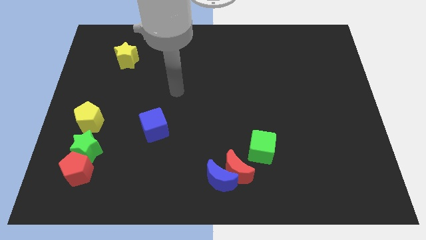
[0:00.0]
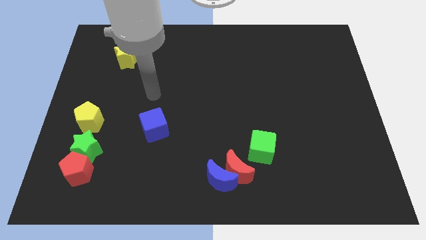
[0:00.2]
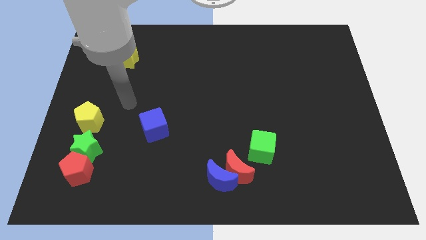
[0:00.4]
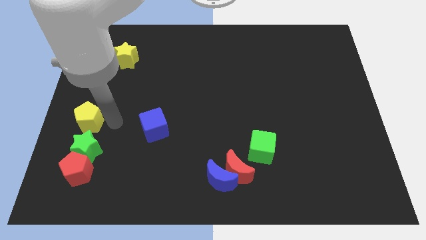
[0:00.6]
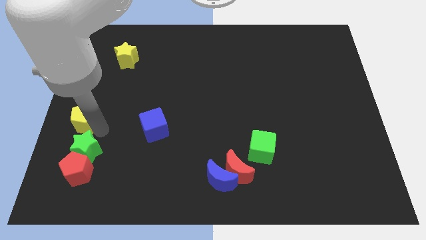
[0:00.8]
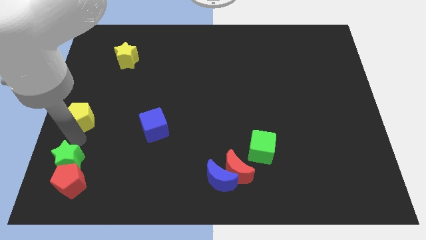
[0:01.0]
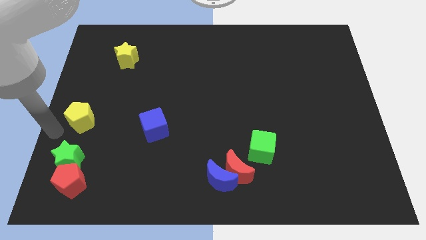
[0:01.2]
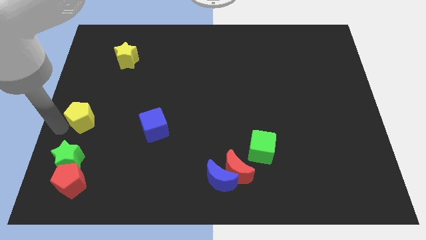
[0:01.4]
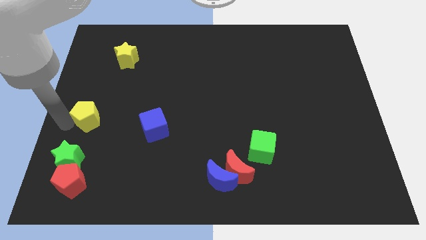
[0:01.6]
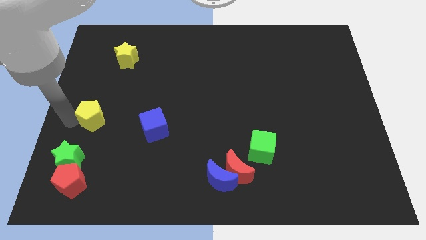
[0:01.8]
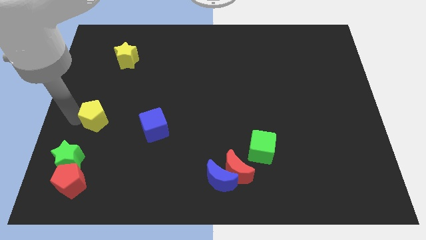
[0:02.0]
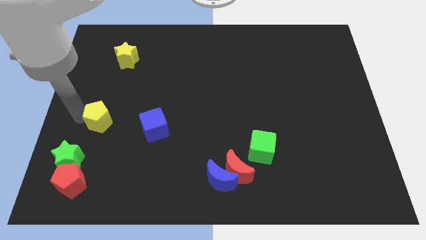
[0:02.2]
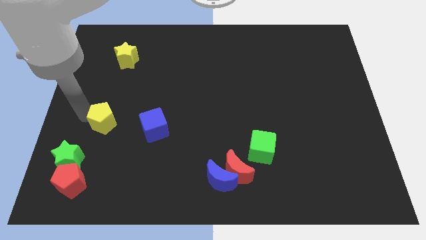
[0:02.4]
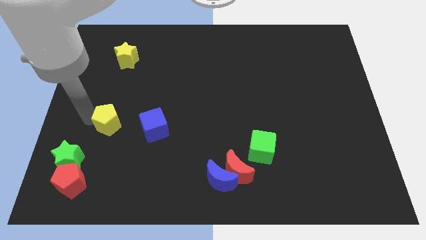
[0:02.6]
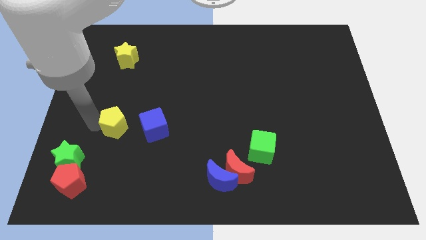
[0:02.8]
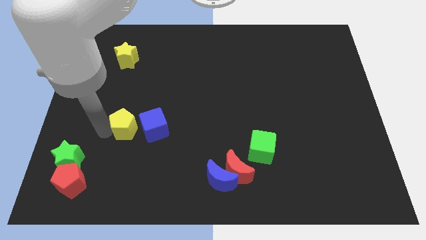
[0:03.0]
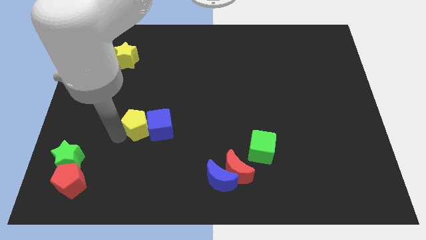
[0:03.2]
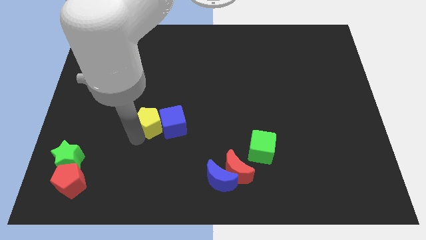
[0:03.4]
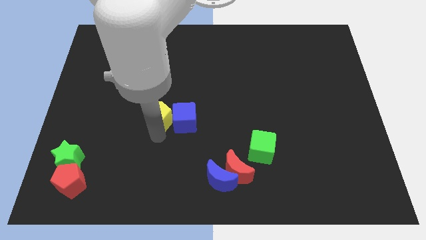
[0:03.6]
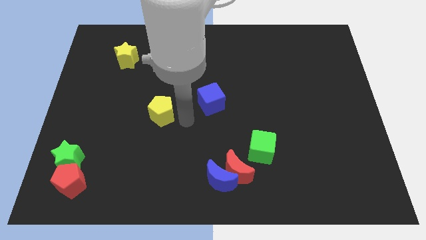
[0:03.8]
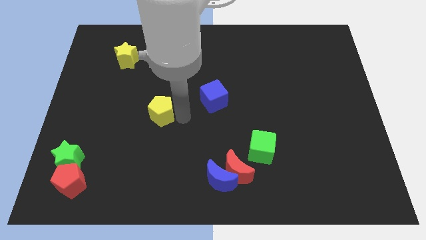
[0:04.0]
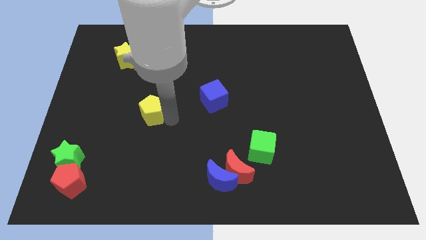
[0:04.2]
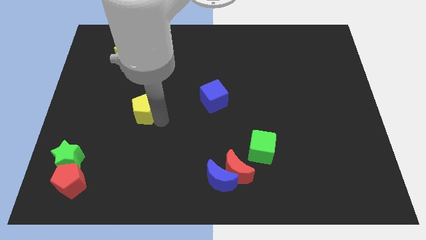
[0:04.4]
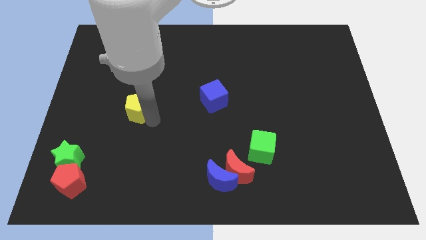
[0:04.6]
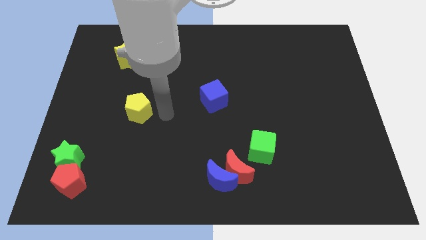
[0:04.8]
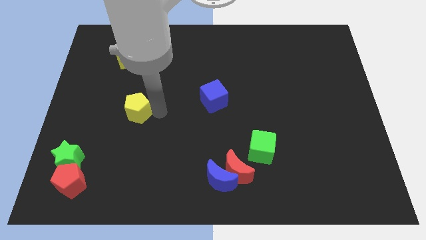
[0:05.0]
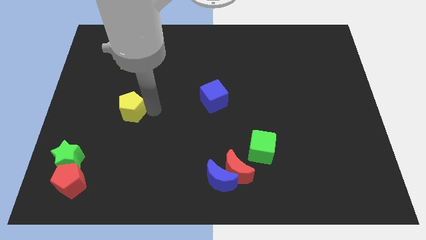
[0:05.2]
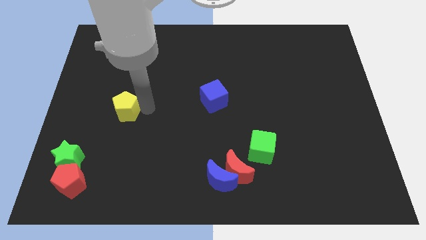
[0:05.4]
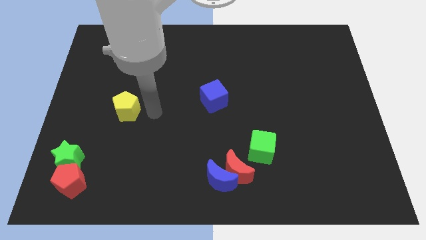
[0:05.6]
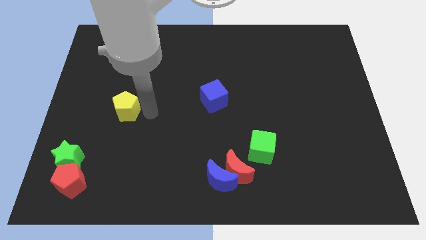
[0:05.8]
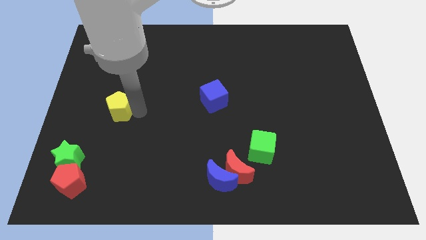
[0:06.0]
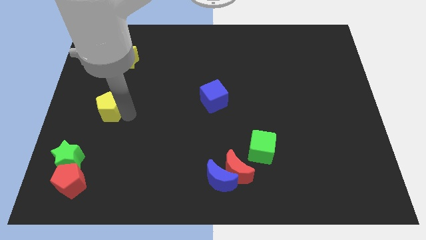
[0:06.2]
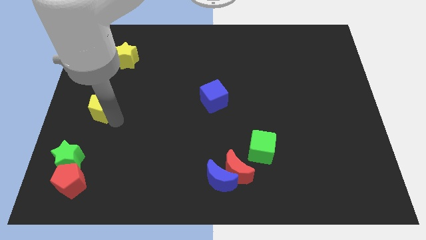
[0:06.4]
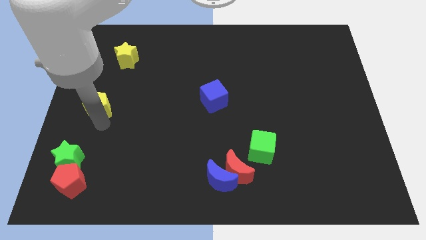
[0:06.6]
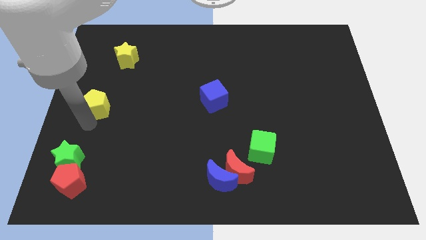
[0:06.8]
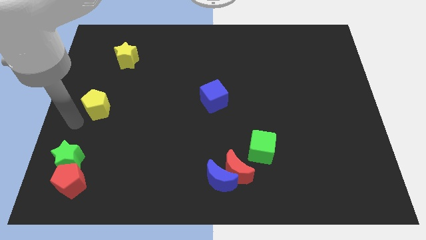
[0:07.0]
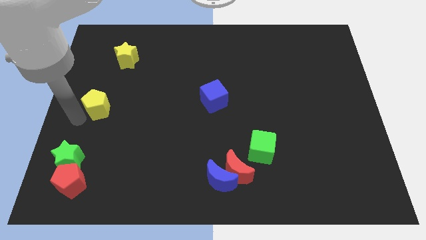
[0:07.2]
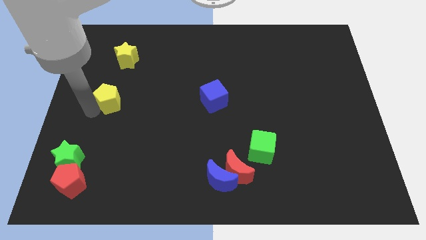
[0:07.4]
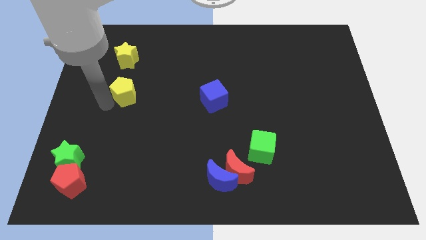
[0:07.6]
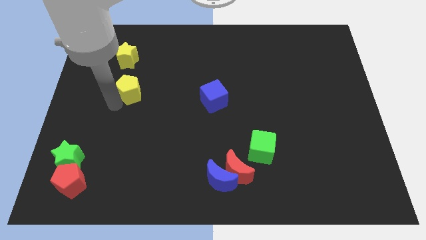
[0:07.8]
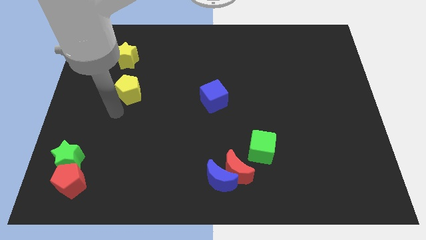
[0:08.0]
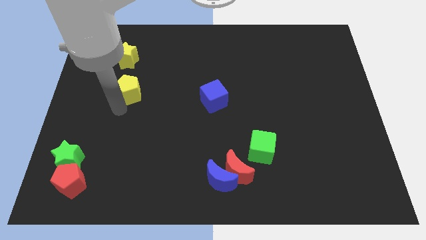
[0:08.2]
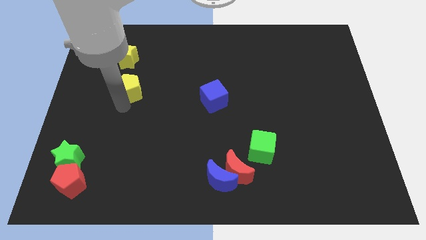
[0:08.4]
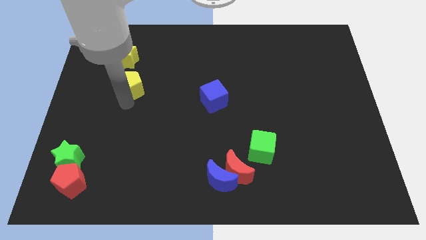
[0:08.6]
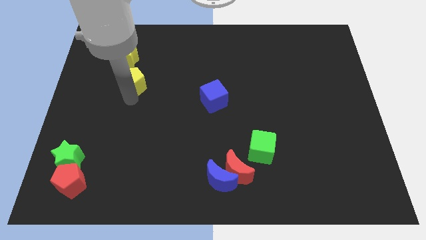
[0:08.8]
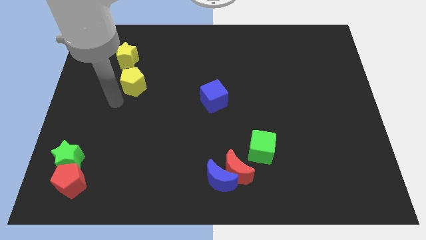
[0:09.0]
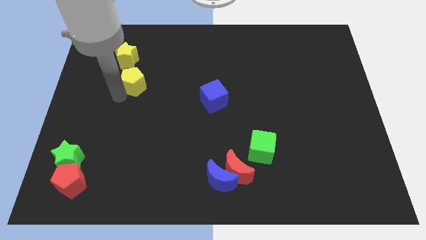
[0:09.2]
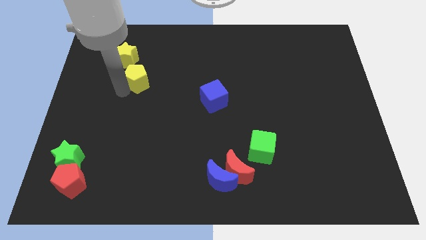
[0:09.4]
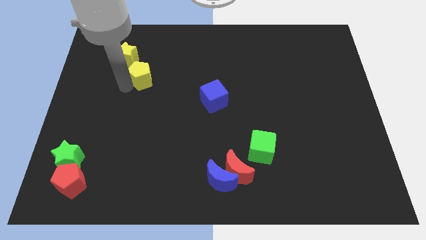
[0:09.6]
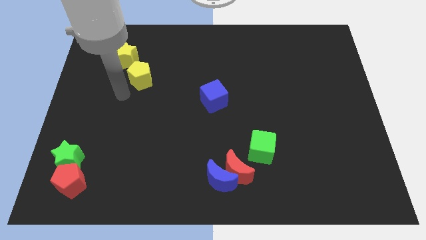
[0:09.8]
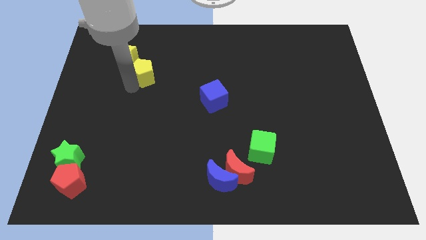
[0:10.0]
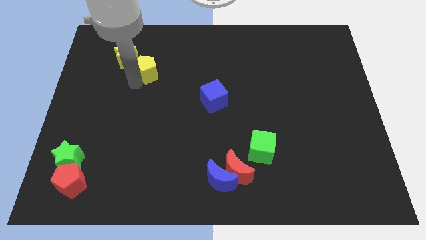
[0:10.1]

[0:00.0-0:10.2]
put the yellow pentagon to the right side of the yellow star

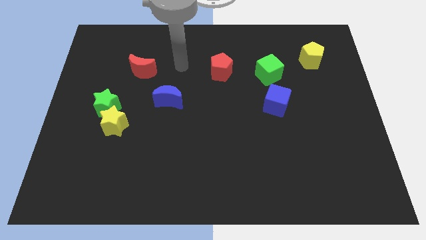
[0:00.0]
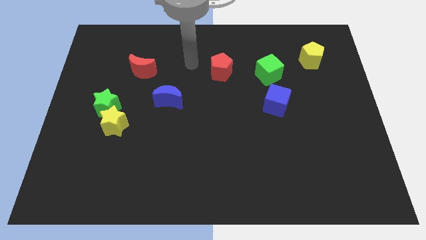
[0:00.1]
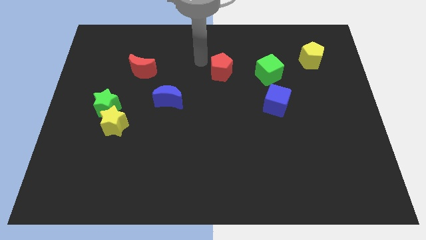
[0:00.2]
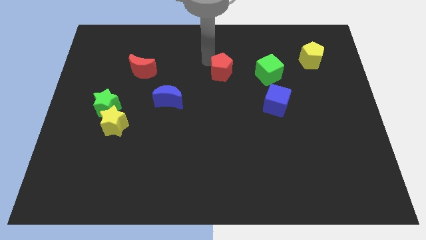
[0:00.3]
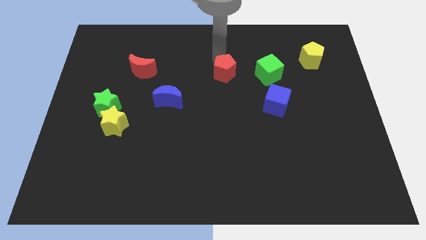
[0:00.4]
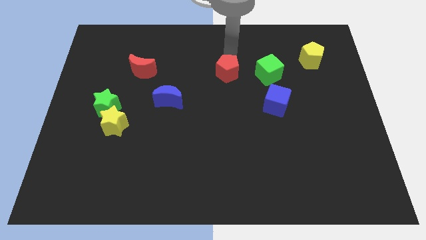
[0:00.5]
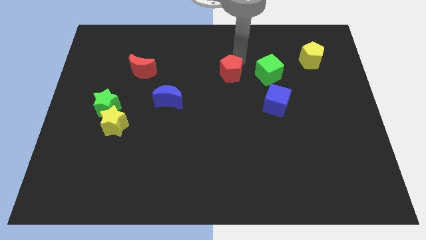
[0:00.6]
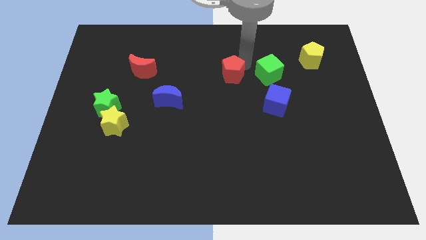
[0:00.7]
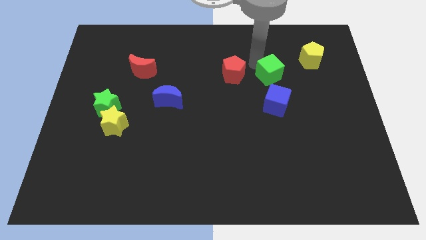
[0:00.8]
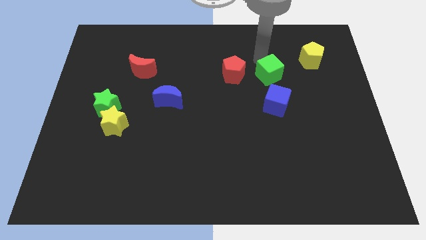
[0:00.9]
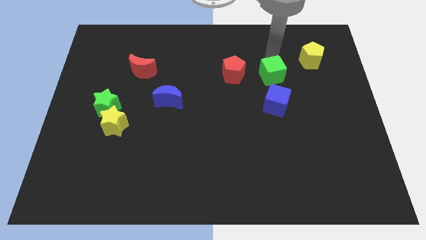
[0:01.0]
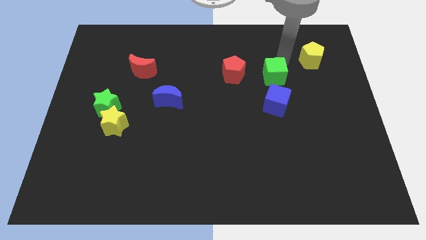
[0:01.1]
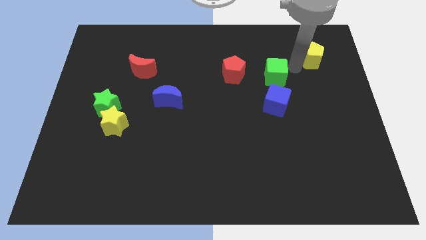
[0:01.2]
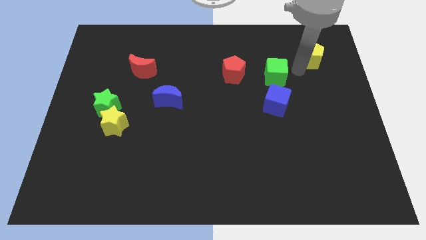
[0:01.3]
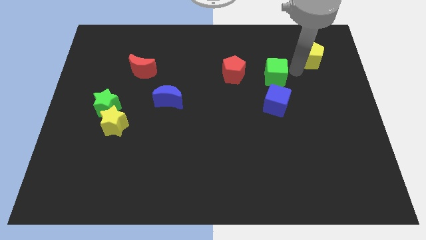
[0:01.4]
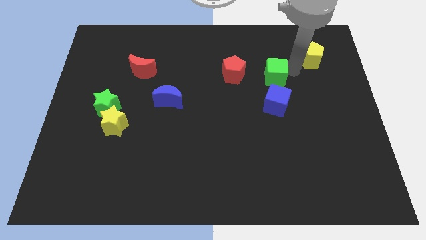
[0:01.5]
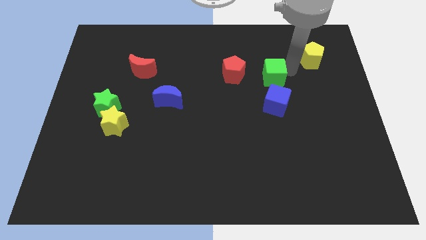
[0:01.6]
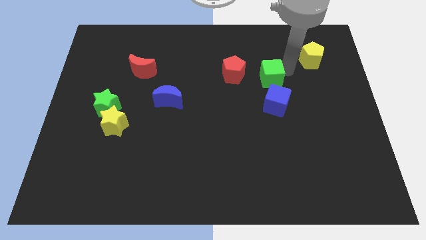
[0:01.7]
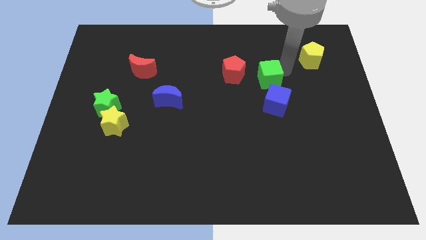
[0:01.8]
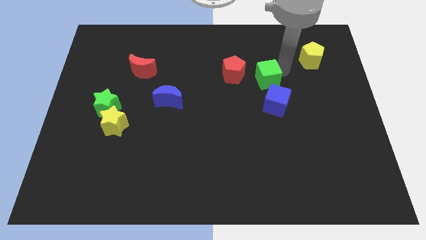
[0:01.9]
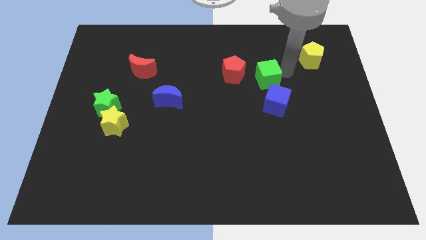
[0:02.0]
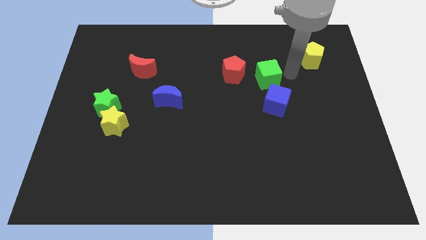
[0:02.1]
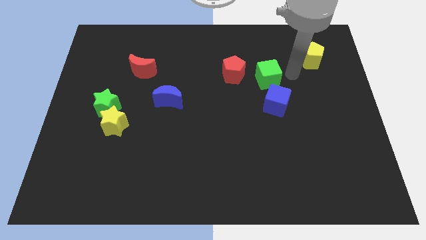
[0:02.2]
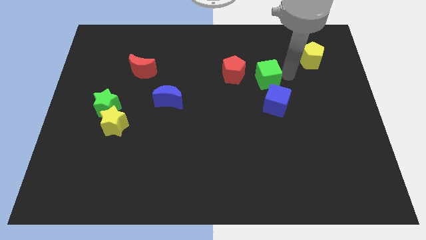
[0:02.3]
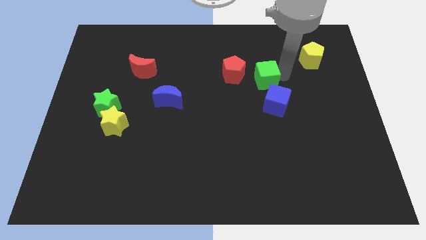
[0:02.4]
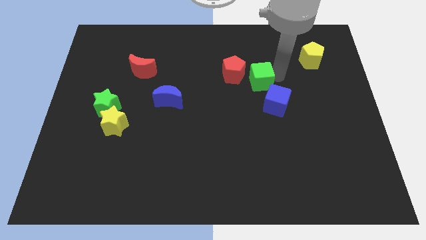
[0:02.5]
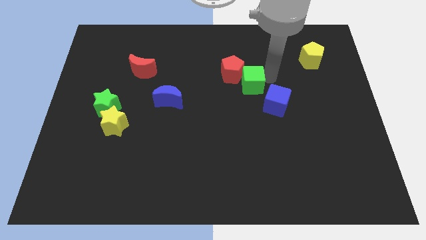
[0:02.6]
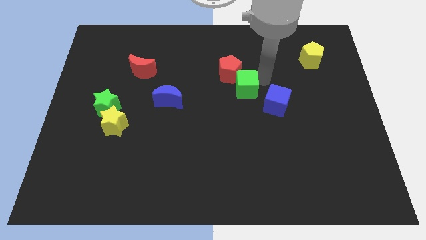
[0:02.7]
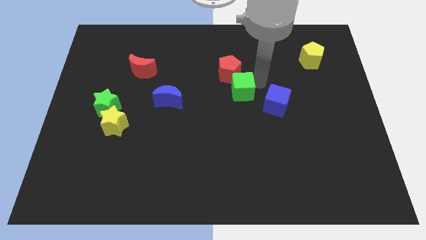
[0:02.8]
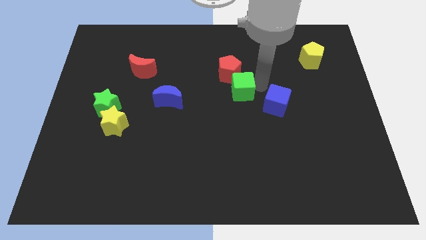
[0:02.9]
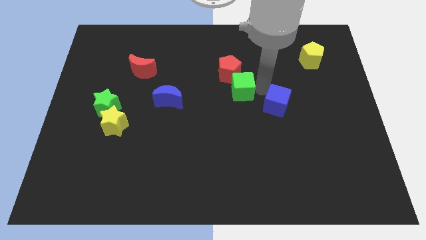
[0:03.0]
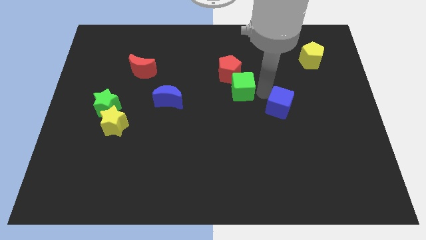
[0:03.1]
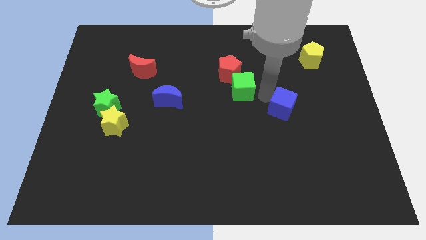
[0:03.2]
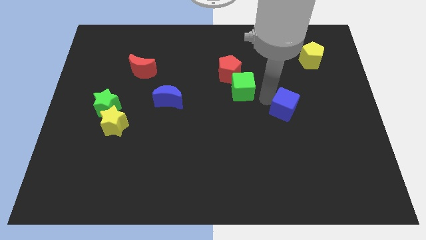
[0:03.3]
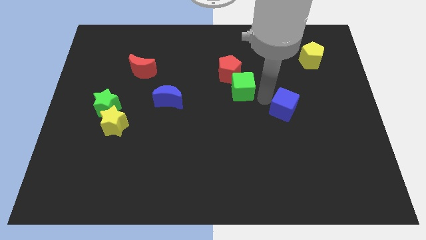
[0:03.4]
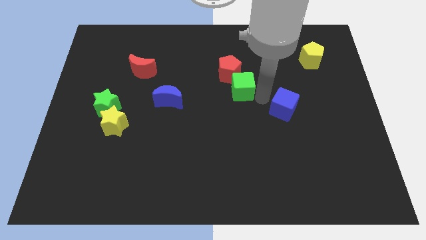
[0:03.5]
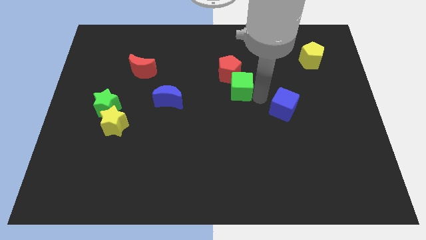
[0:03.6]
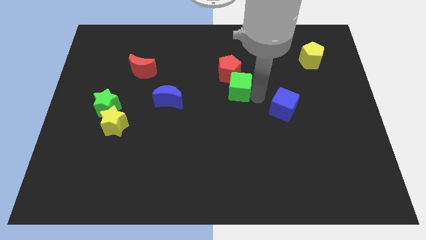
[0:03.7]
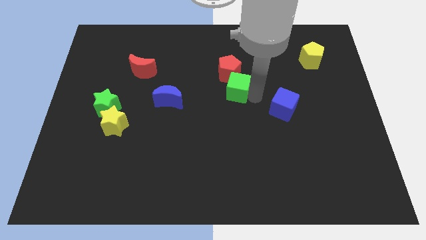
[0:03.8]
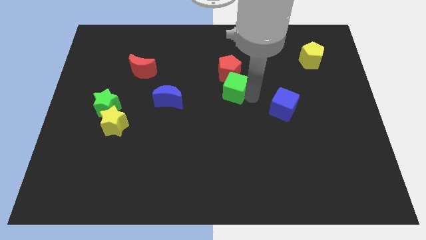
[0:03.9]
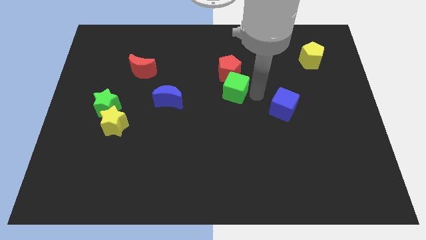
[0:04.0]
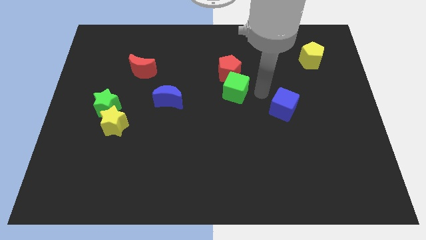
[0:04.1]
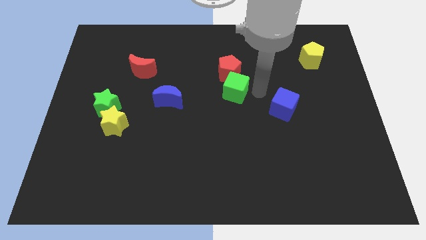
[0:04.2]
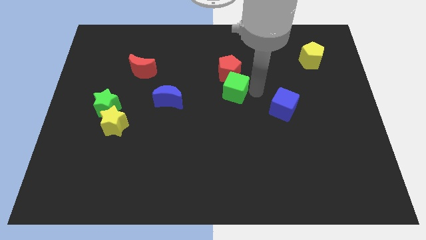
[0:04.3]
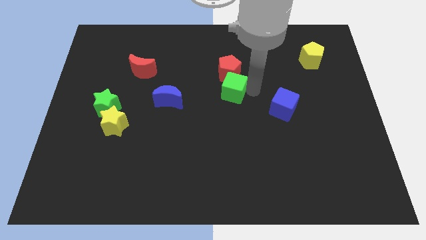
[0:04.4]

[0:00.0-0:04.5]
push the green cube to the bottom left side of the red pentagon
